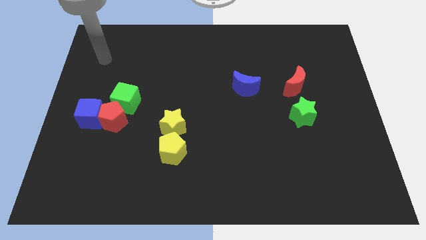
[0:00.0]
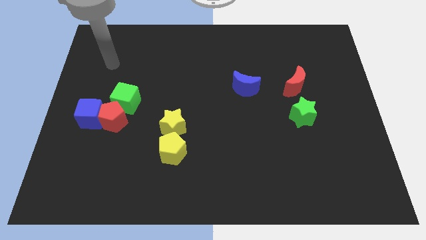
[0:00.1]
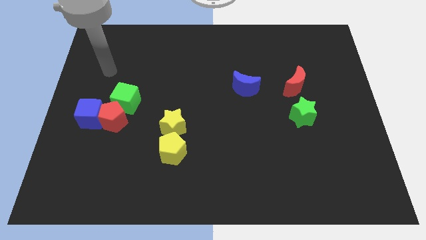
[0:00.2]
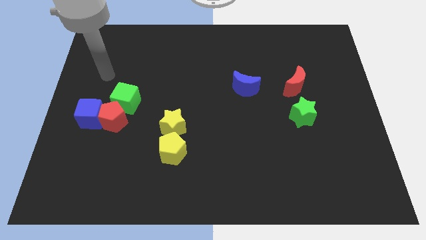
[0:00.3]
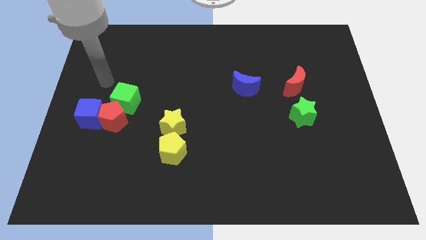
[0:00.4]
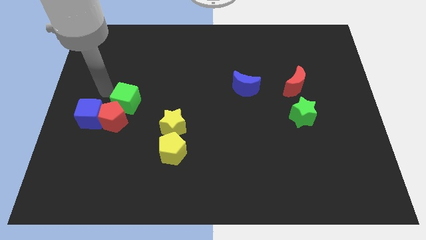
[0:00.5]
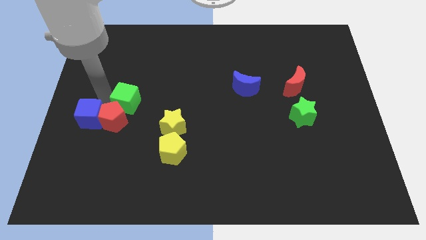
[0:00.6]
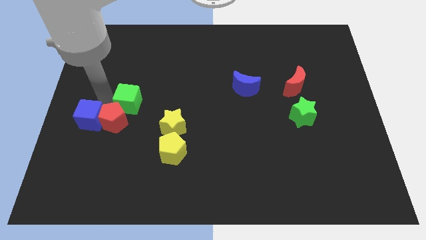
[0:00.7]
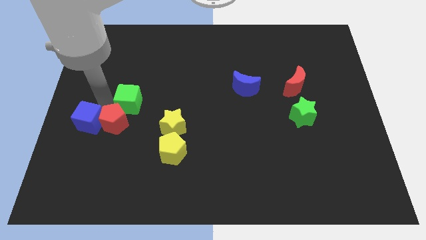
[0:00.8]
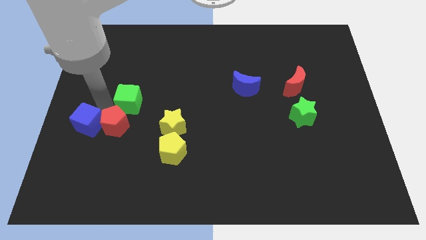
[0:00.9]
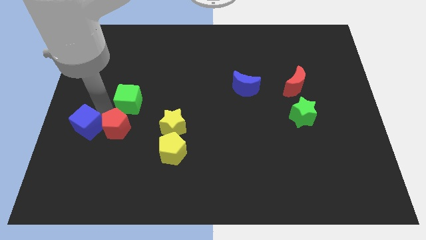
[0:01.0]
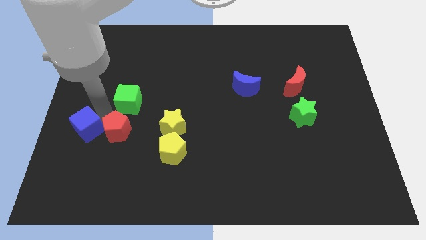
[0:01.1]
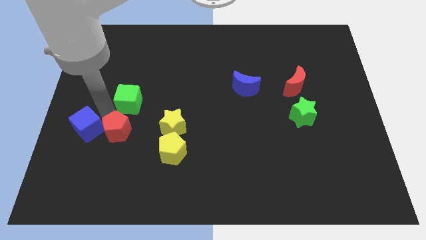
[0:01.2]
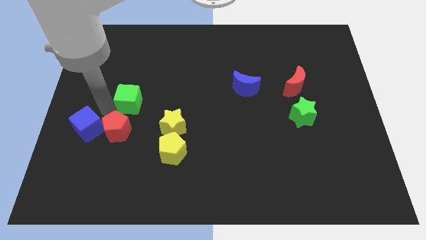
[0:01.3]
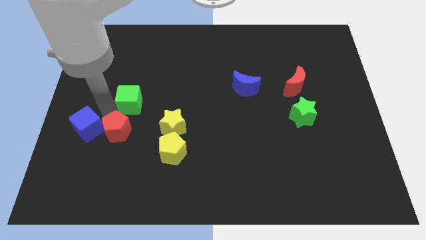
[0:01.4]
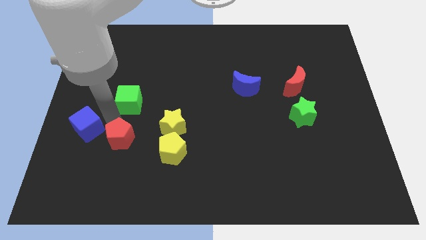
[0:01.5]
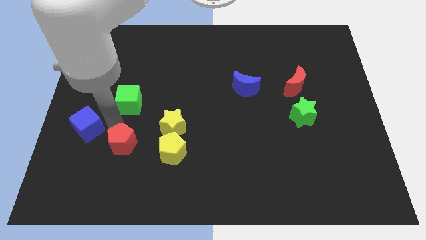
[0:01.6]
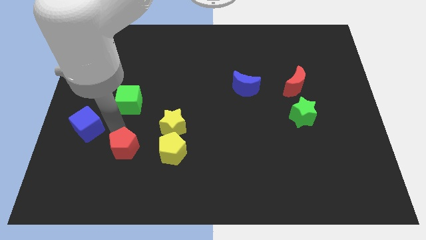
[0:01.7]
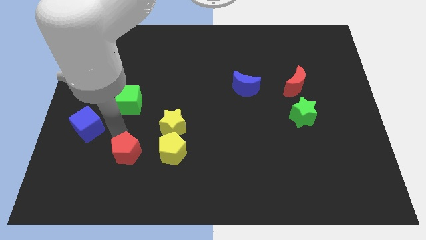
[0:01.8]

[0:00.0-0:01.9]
separate the red pentagon from the blue cube and green cube

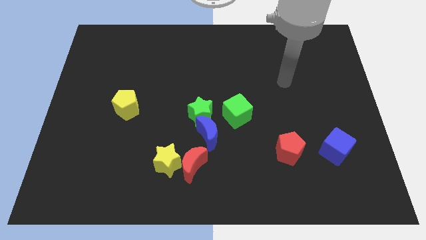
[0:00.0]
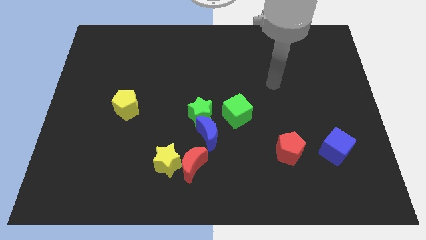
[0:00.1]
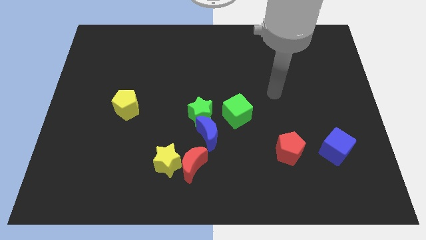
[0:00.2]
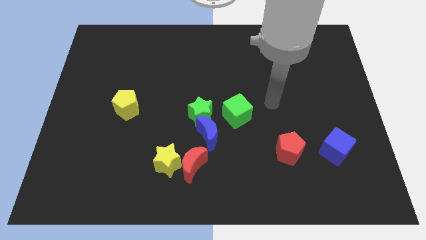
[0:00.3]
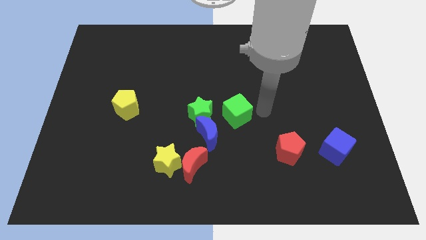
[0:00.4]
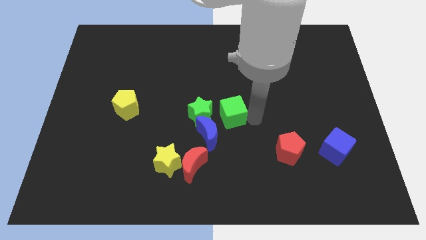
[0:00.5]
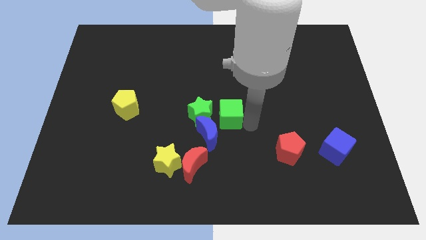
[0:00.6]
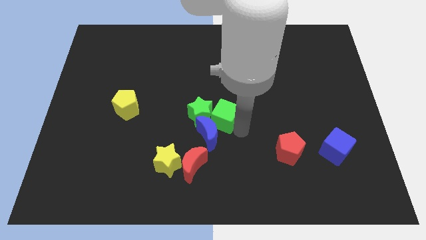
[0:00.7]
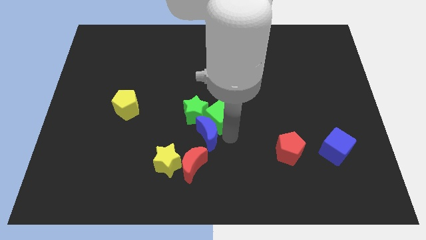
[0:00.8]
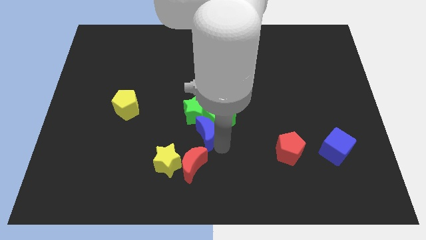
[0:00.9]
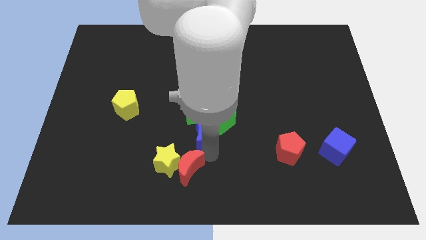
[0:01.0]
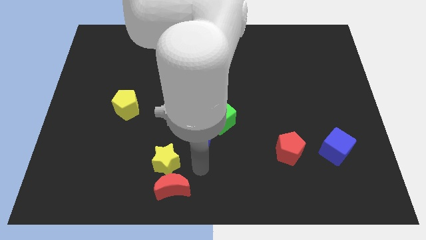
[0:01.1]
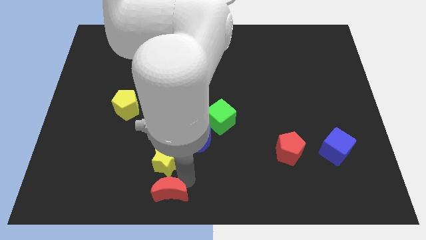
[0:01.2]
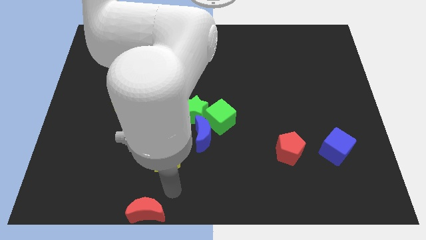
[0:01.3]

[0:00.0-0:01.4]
move the yellow star away from the red moon

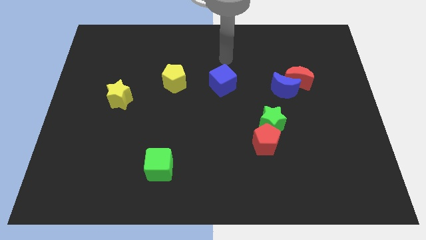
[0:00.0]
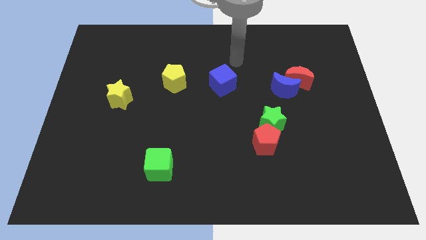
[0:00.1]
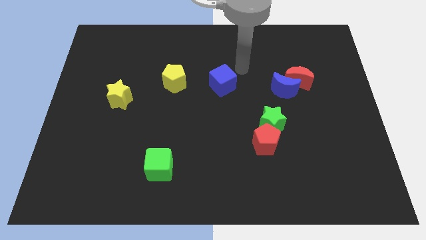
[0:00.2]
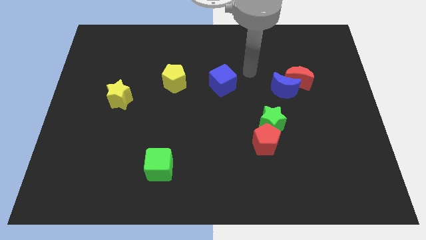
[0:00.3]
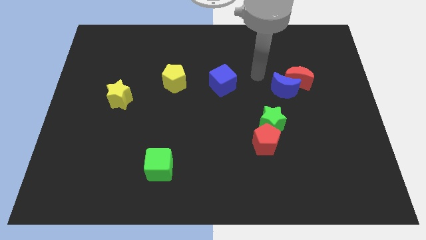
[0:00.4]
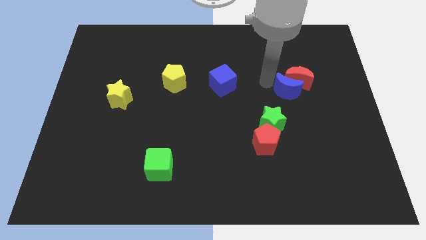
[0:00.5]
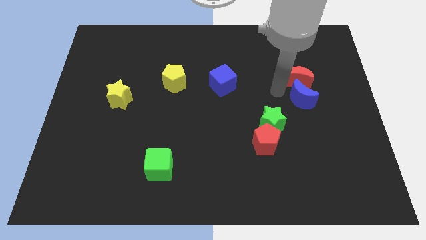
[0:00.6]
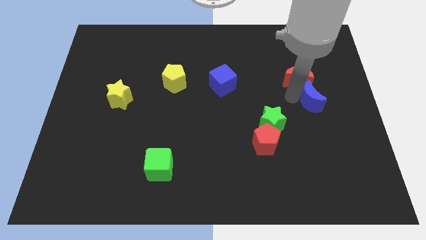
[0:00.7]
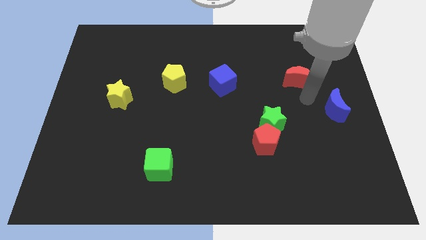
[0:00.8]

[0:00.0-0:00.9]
move the red moon away from the blue moon

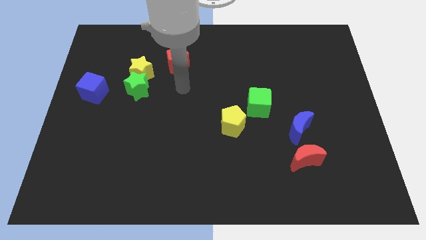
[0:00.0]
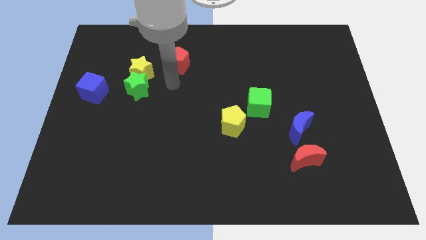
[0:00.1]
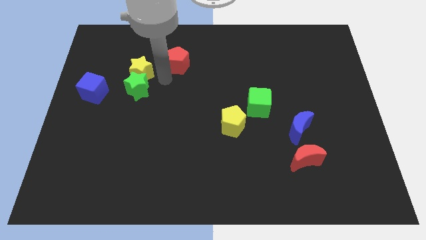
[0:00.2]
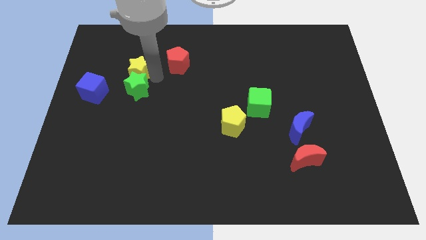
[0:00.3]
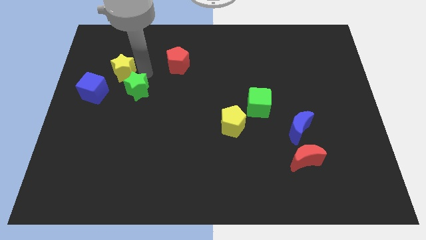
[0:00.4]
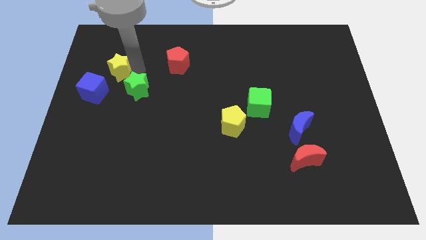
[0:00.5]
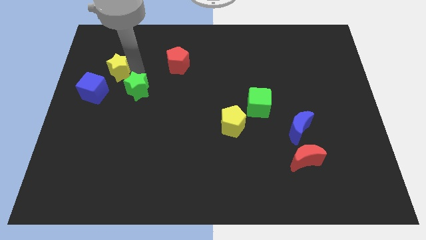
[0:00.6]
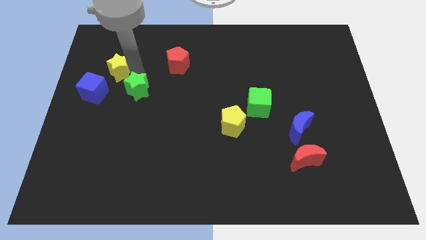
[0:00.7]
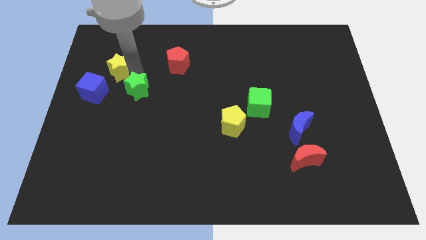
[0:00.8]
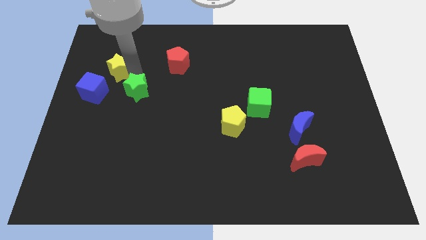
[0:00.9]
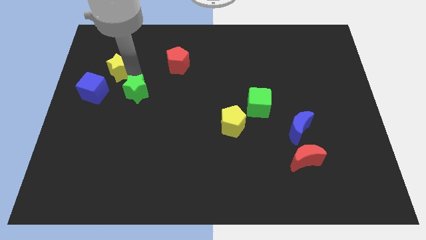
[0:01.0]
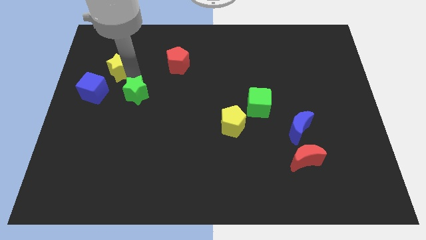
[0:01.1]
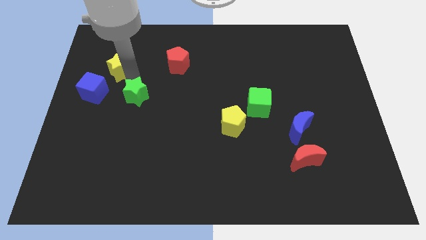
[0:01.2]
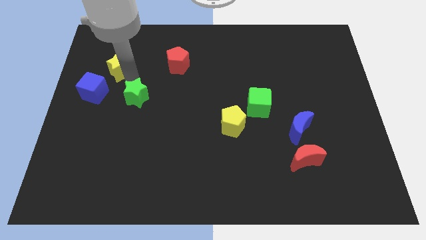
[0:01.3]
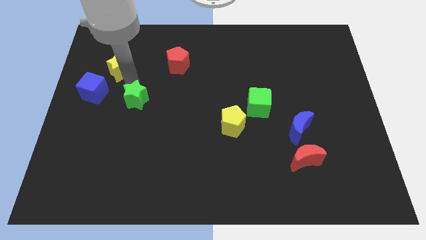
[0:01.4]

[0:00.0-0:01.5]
move the green star away from the yellow star

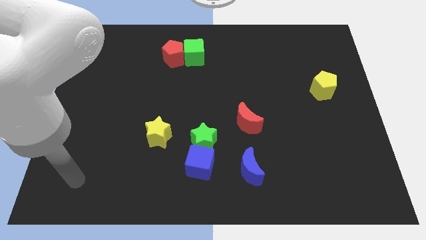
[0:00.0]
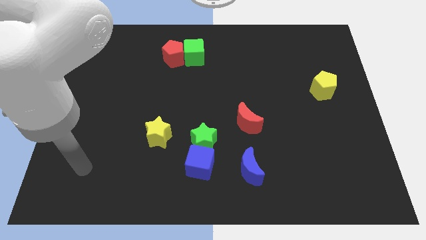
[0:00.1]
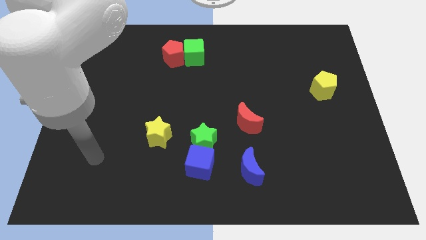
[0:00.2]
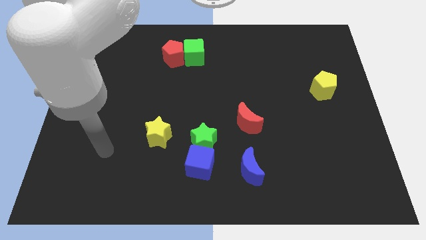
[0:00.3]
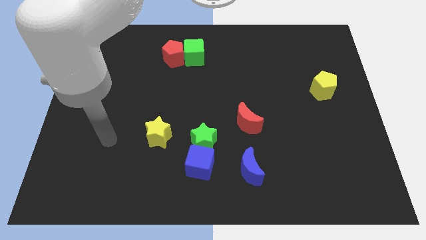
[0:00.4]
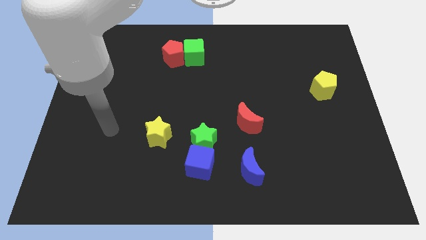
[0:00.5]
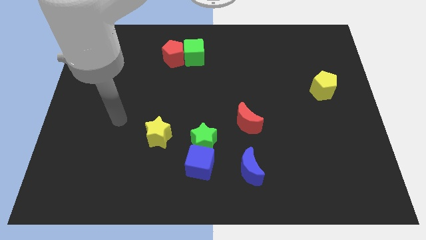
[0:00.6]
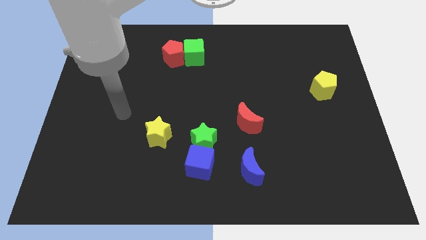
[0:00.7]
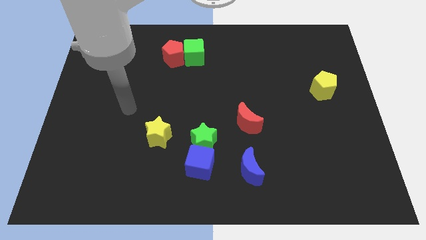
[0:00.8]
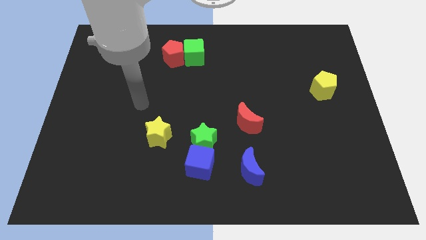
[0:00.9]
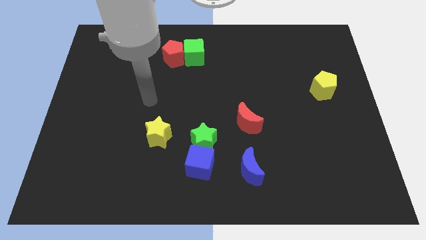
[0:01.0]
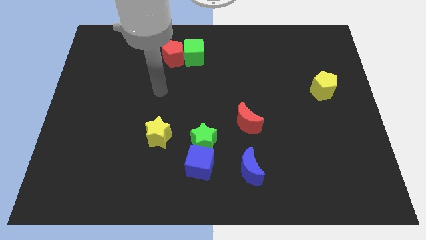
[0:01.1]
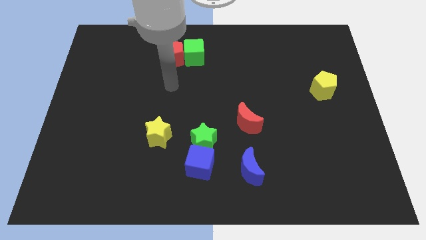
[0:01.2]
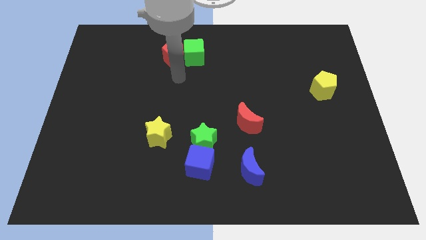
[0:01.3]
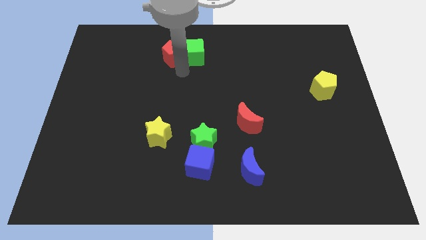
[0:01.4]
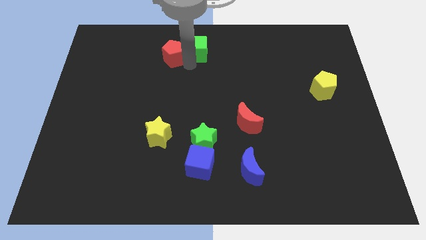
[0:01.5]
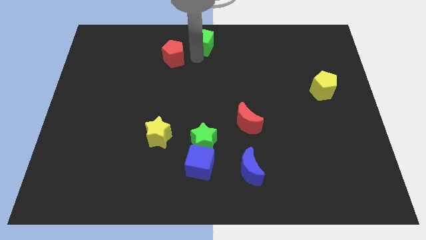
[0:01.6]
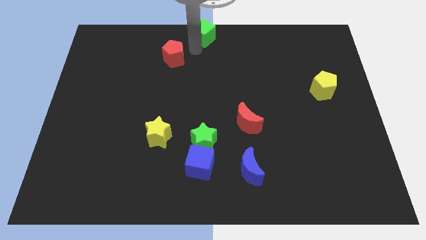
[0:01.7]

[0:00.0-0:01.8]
separate the red pentagon from the green cube

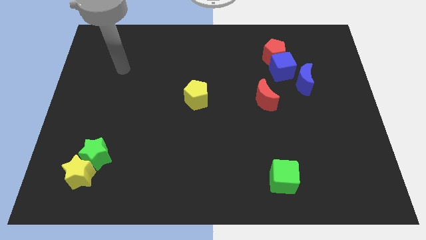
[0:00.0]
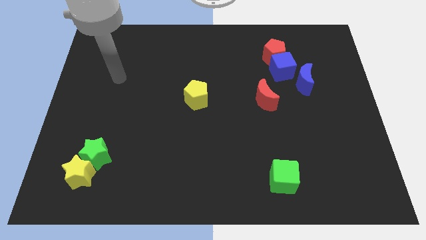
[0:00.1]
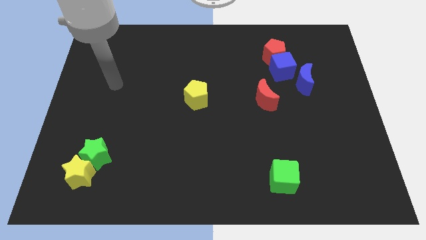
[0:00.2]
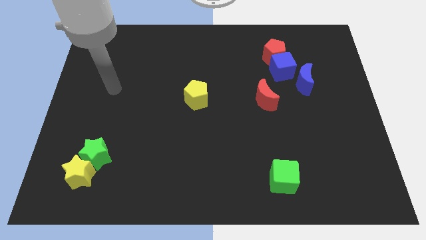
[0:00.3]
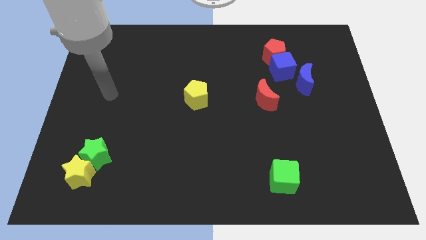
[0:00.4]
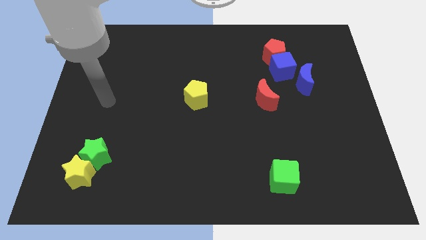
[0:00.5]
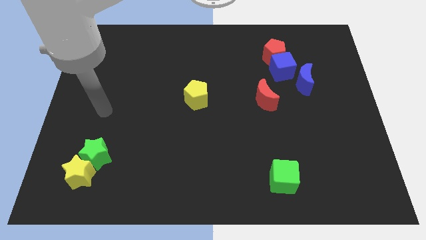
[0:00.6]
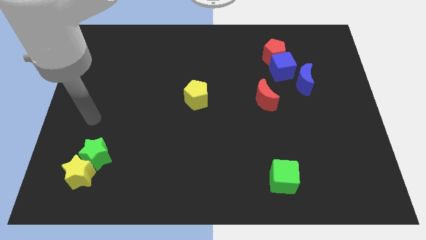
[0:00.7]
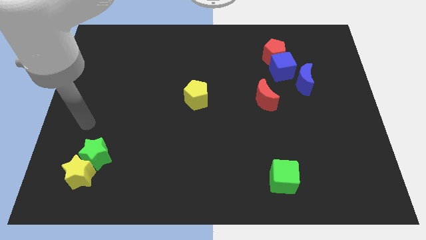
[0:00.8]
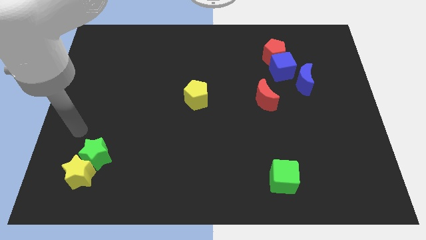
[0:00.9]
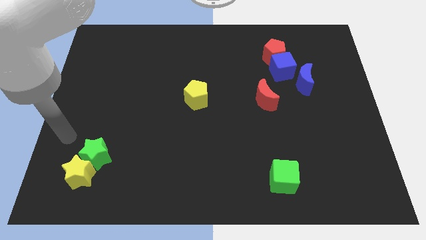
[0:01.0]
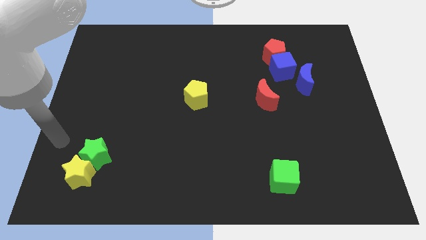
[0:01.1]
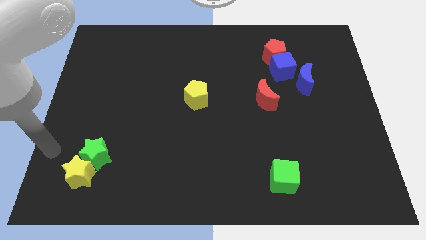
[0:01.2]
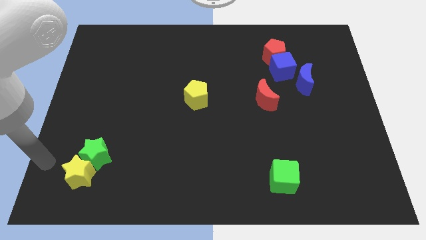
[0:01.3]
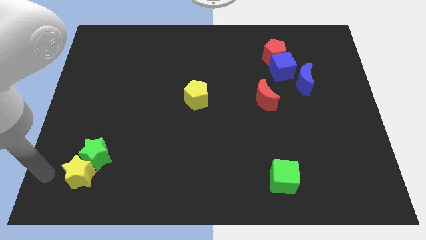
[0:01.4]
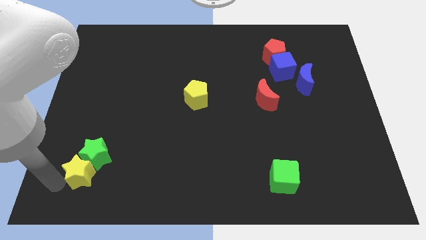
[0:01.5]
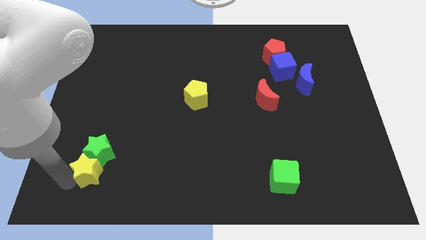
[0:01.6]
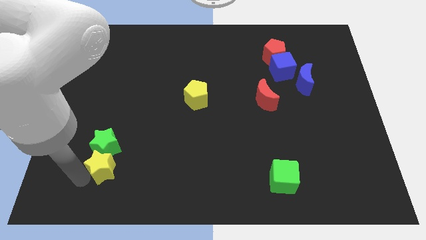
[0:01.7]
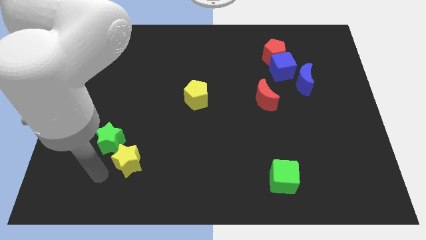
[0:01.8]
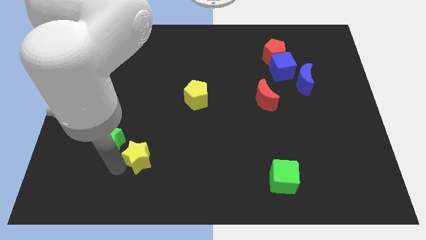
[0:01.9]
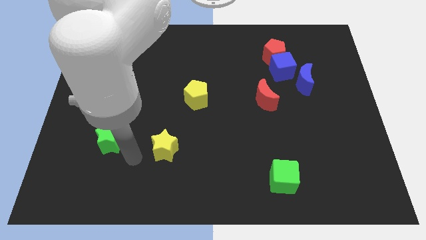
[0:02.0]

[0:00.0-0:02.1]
separate the green star from the yellow star
